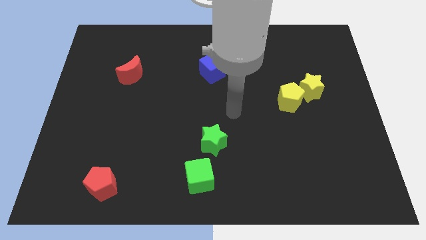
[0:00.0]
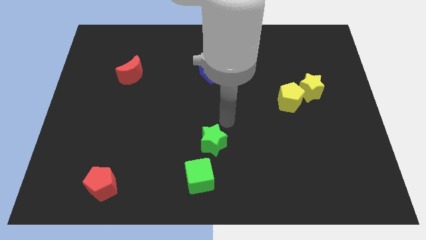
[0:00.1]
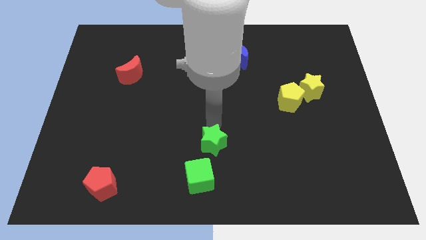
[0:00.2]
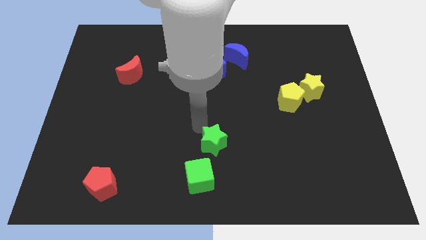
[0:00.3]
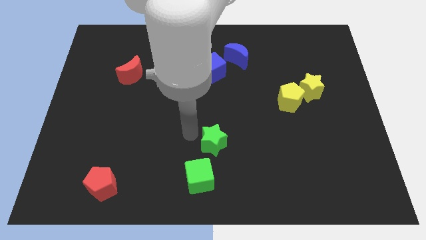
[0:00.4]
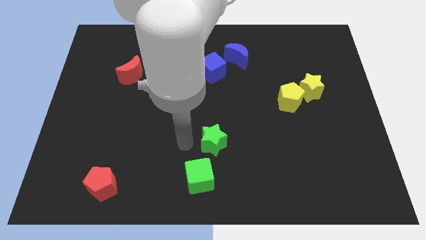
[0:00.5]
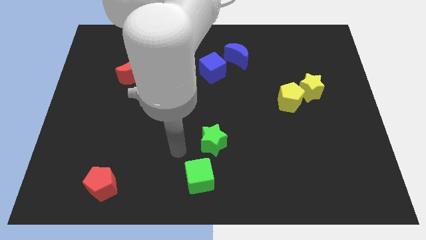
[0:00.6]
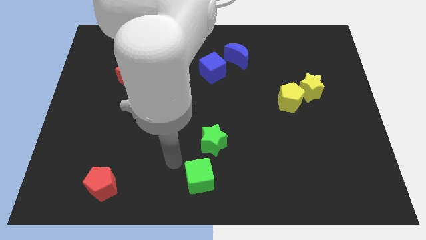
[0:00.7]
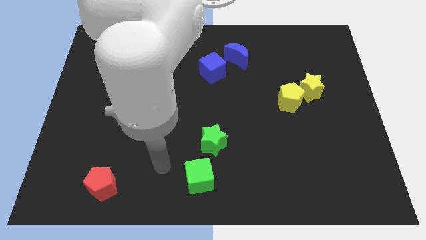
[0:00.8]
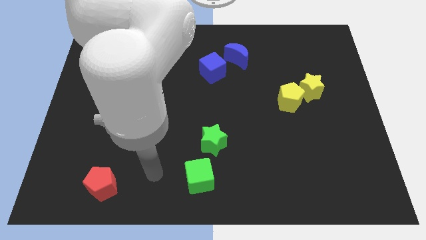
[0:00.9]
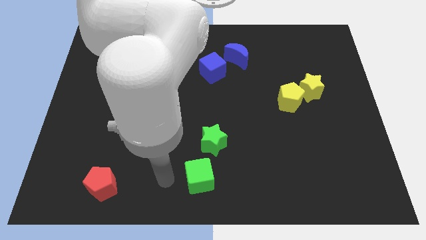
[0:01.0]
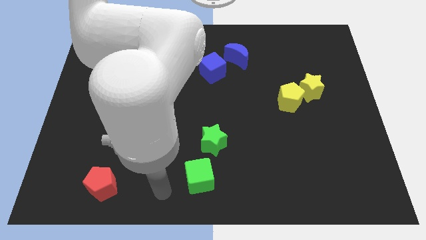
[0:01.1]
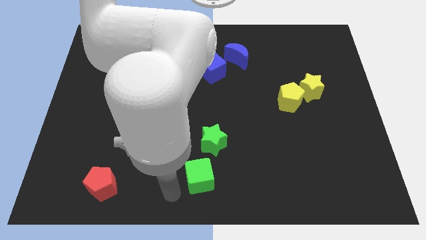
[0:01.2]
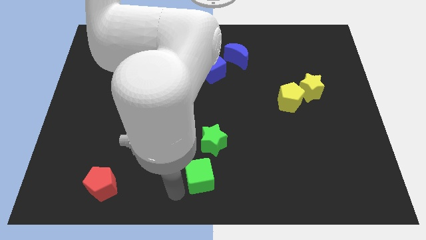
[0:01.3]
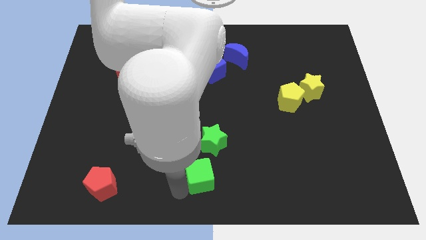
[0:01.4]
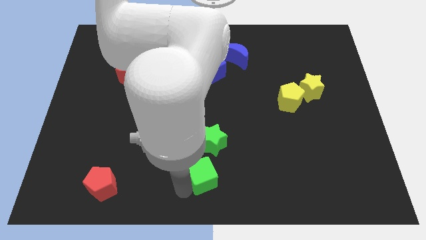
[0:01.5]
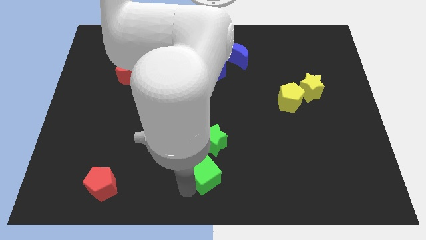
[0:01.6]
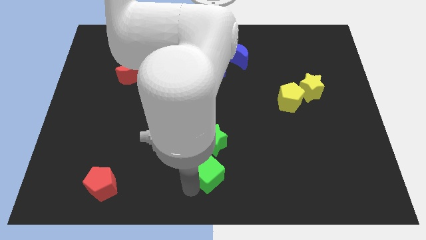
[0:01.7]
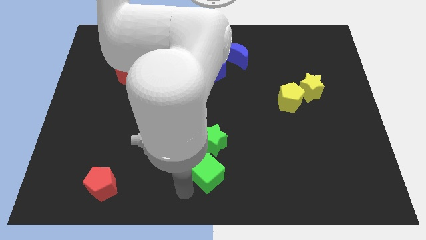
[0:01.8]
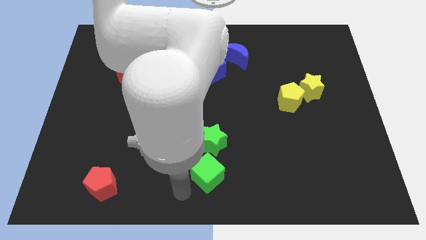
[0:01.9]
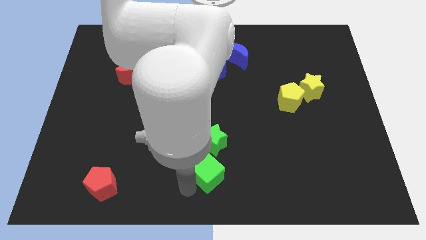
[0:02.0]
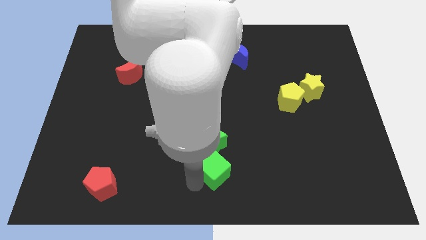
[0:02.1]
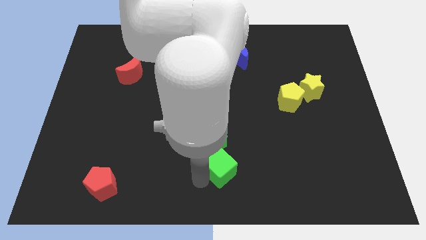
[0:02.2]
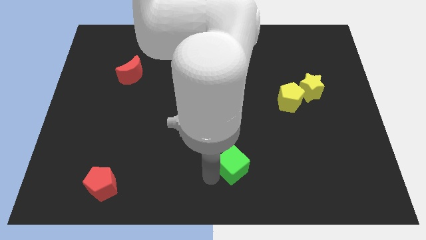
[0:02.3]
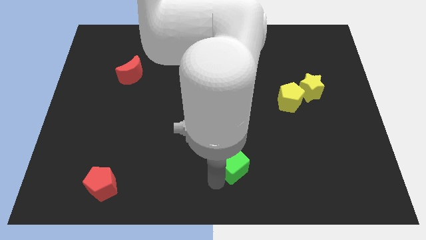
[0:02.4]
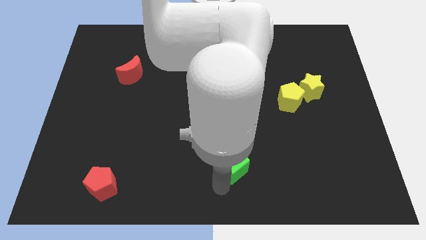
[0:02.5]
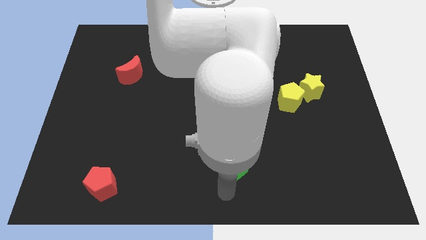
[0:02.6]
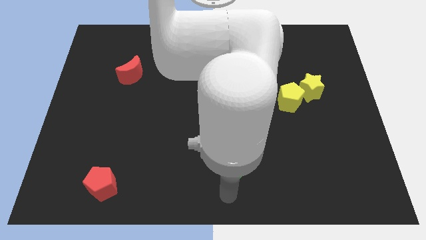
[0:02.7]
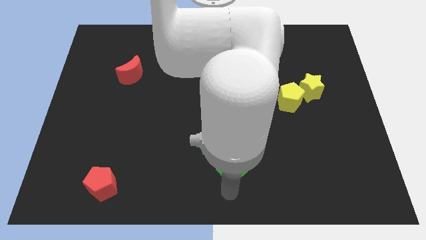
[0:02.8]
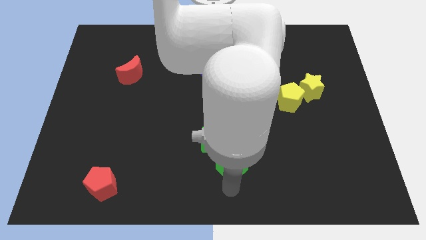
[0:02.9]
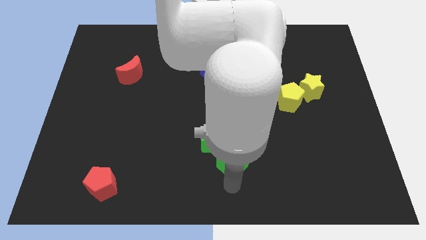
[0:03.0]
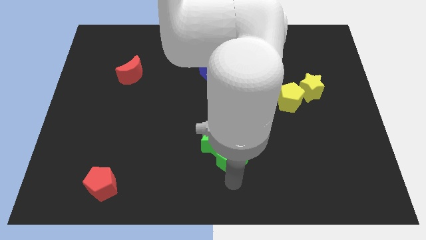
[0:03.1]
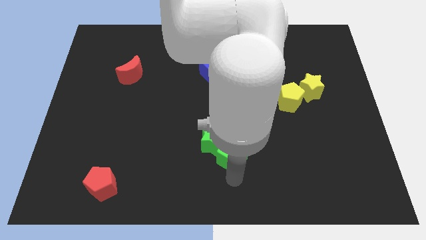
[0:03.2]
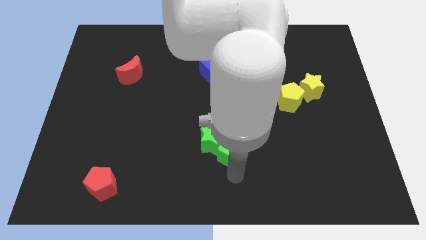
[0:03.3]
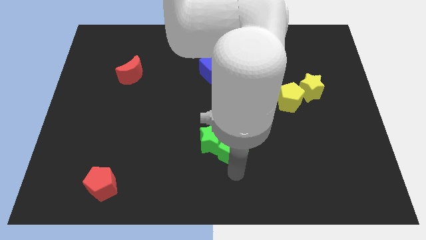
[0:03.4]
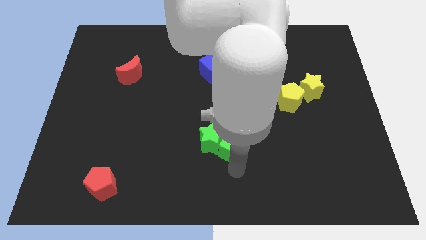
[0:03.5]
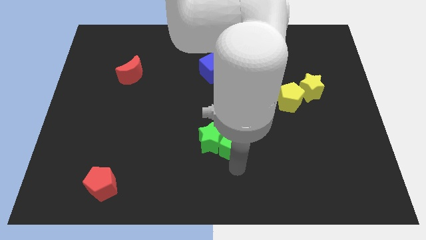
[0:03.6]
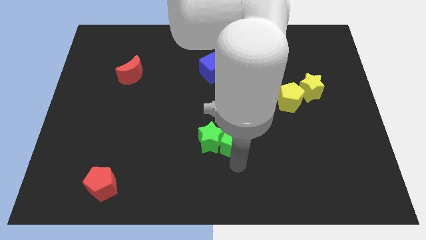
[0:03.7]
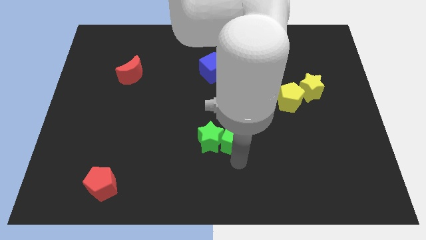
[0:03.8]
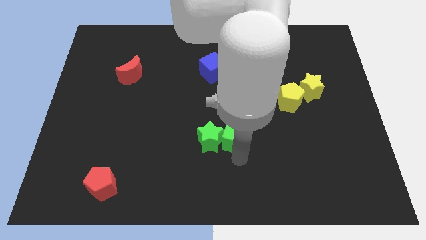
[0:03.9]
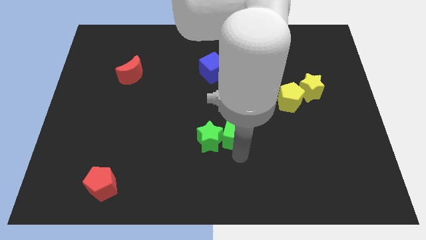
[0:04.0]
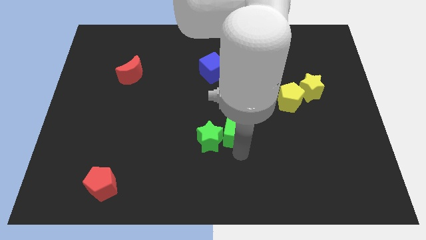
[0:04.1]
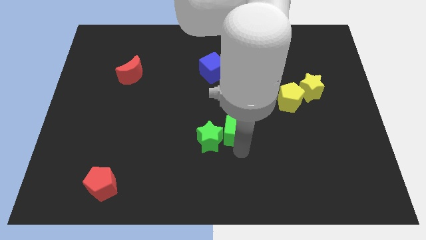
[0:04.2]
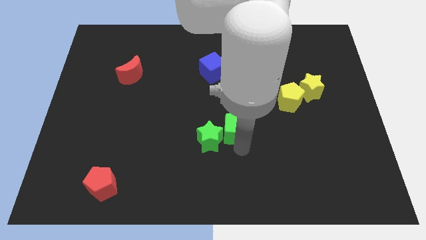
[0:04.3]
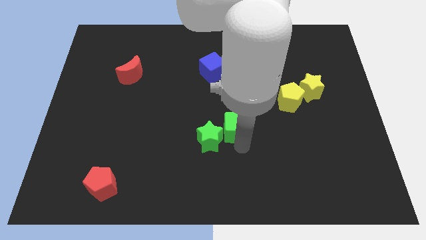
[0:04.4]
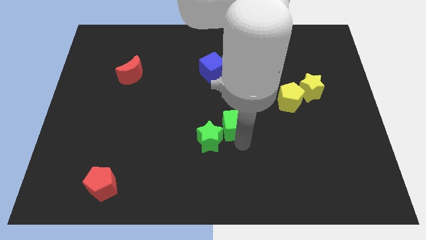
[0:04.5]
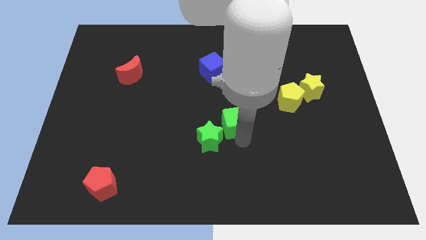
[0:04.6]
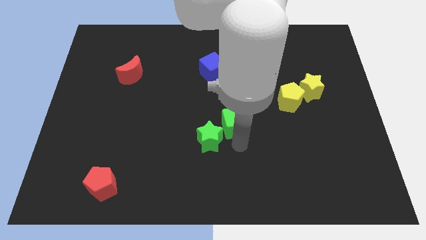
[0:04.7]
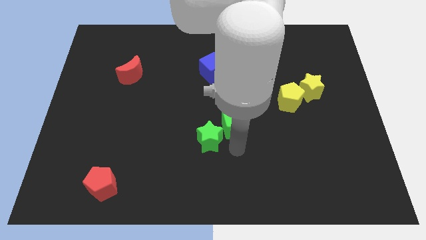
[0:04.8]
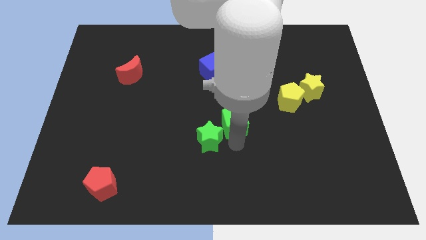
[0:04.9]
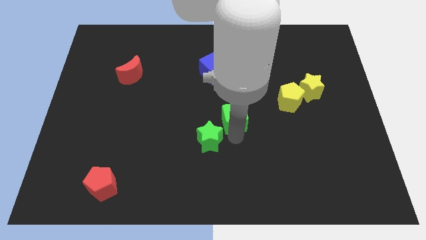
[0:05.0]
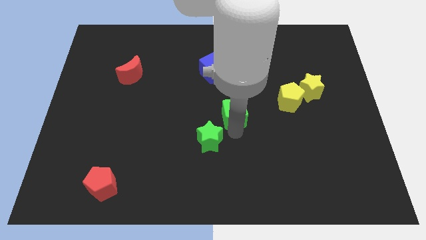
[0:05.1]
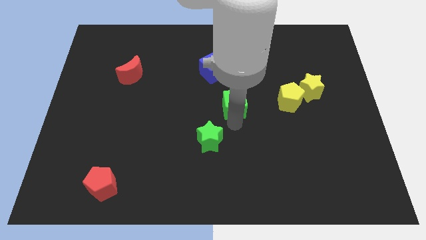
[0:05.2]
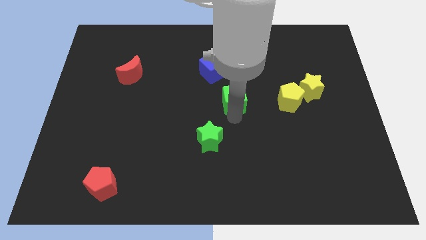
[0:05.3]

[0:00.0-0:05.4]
push the green cube diagonally down and to the right of the blue cube

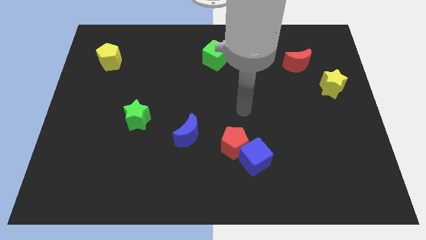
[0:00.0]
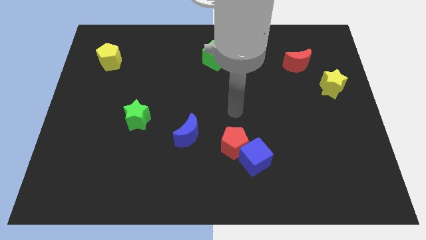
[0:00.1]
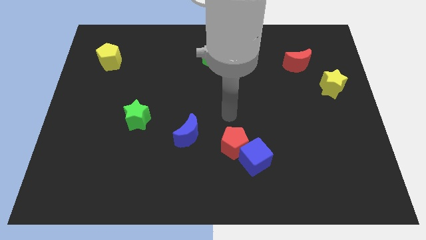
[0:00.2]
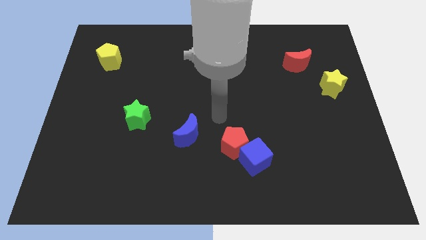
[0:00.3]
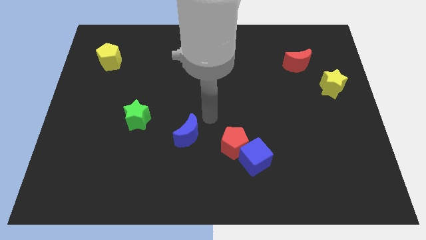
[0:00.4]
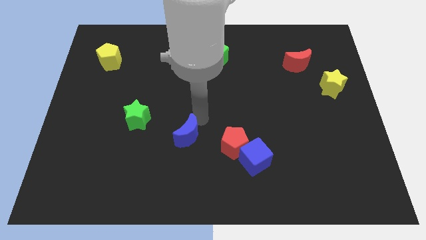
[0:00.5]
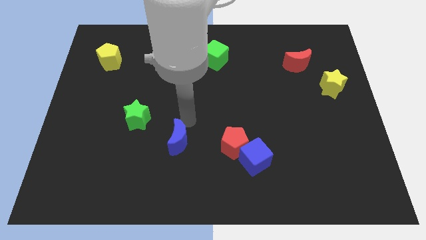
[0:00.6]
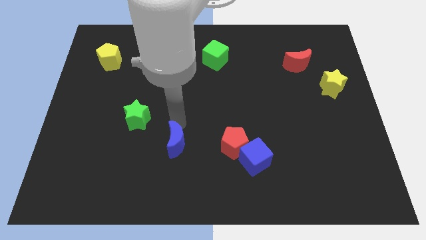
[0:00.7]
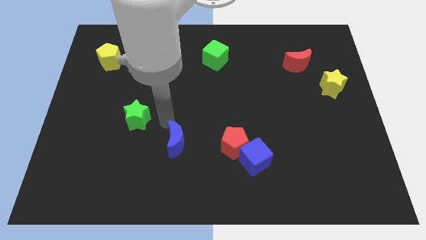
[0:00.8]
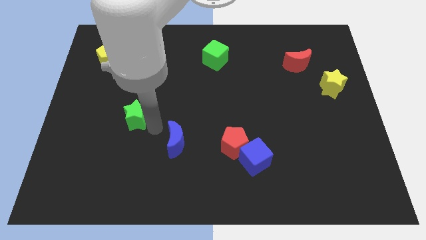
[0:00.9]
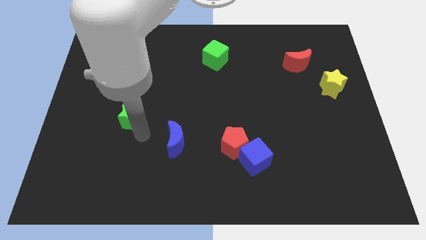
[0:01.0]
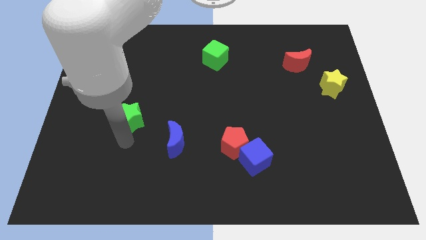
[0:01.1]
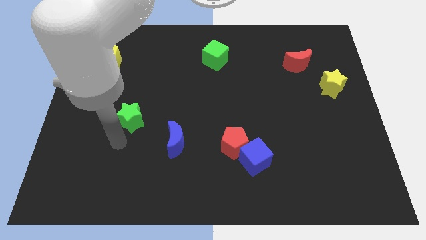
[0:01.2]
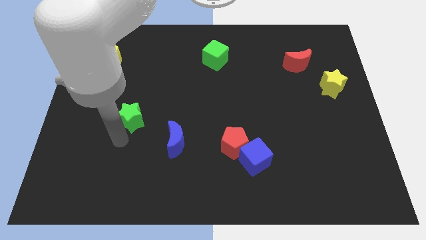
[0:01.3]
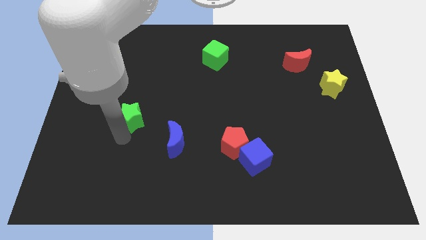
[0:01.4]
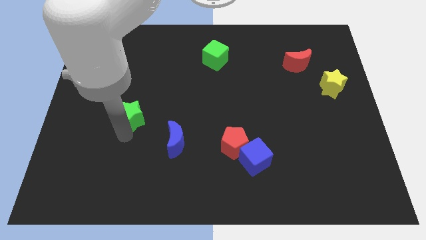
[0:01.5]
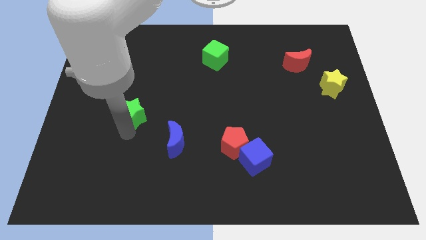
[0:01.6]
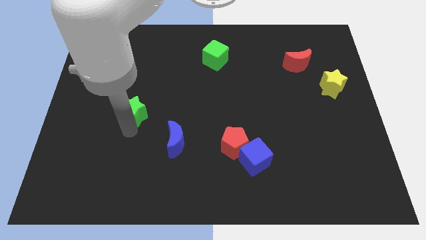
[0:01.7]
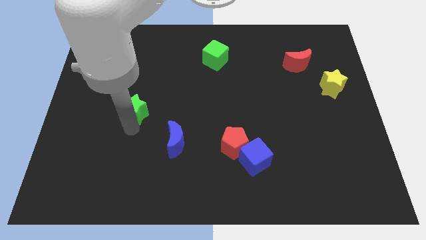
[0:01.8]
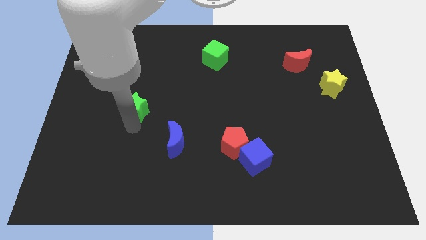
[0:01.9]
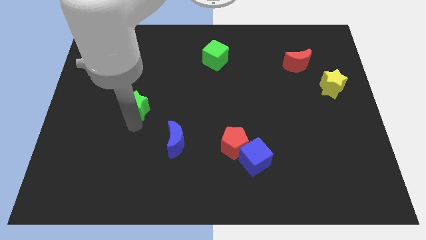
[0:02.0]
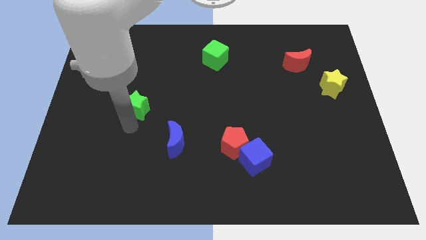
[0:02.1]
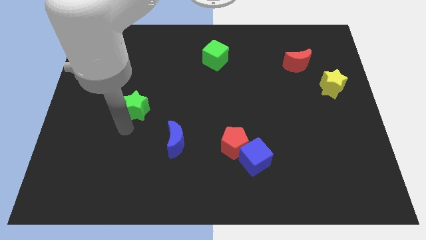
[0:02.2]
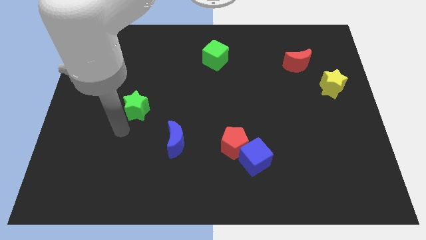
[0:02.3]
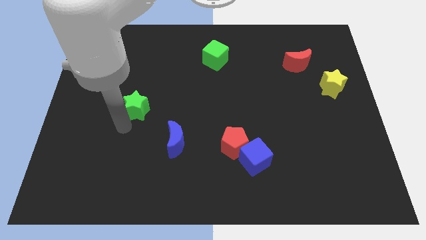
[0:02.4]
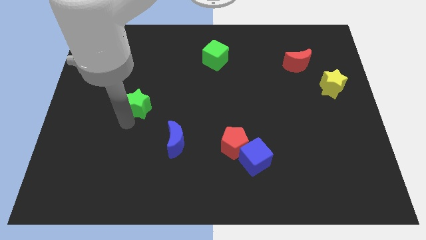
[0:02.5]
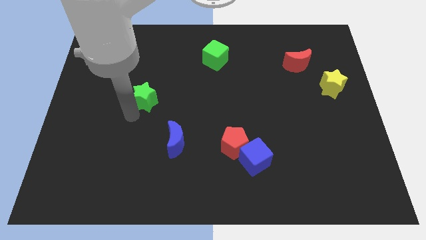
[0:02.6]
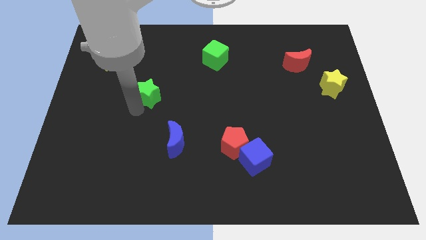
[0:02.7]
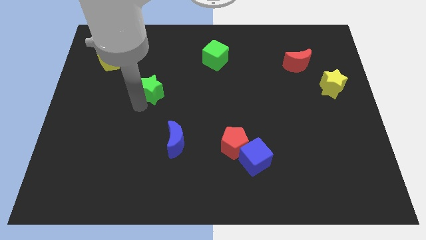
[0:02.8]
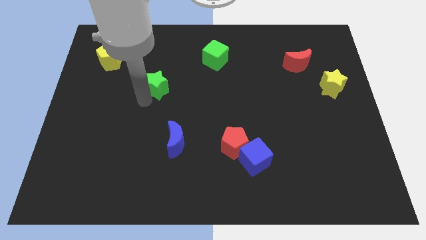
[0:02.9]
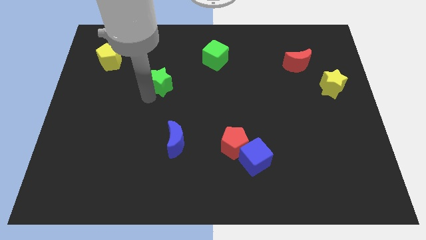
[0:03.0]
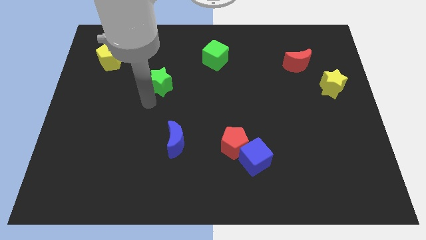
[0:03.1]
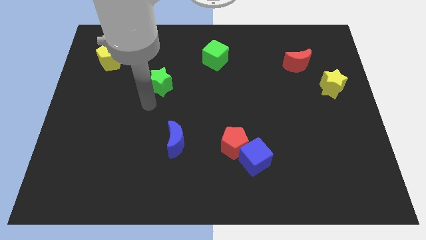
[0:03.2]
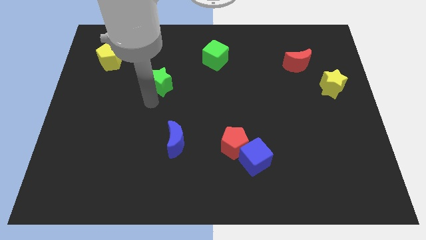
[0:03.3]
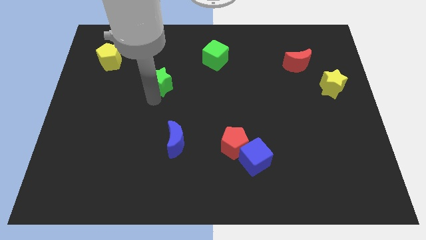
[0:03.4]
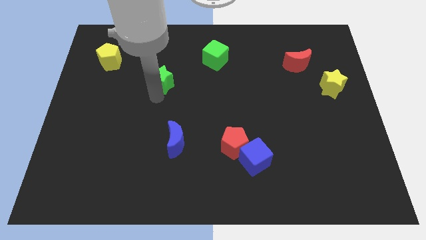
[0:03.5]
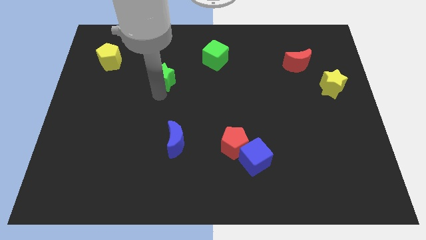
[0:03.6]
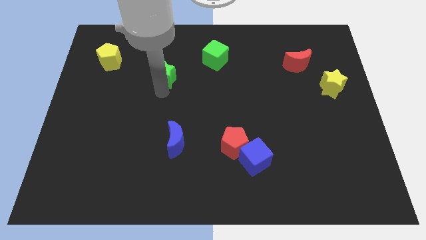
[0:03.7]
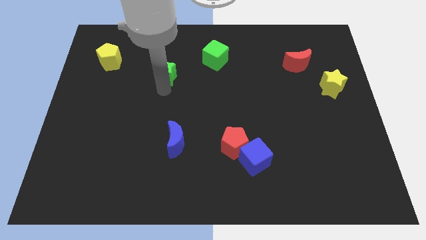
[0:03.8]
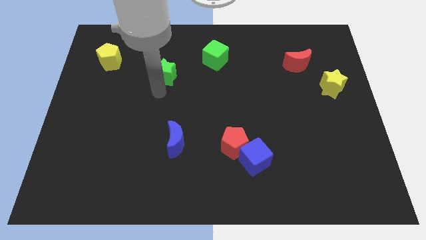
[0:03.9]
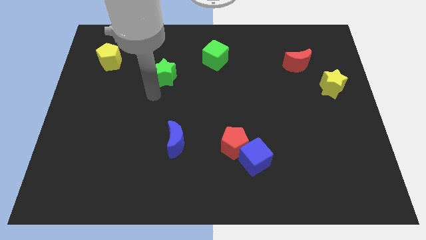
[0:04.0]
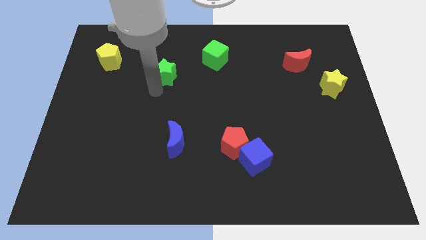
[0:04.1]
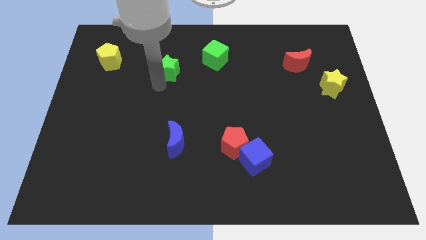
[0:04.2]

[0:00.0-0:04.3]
put the green star to the left side of the green cube
